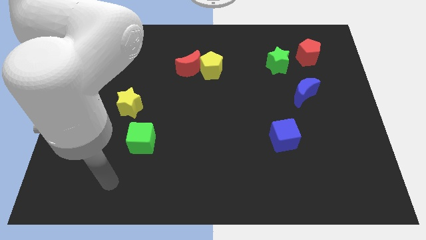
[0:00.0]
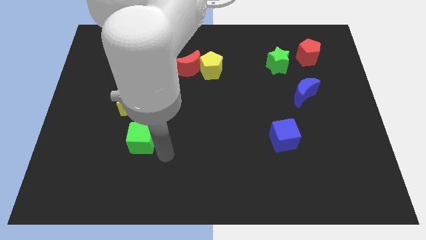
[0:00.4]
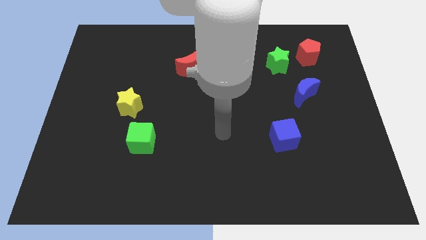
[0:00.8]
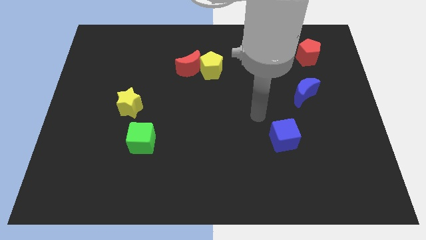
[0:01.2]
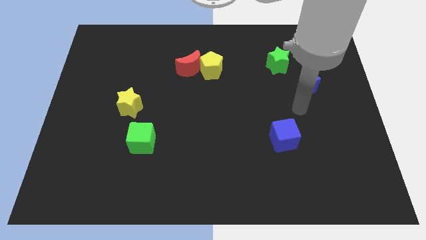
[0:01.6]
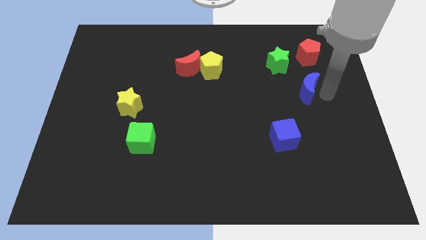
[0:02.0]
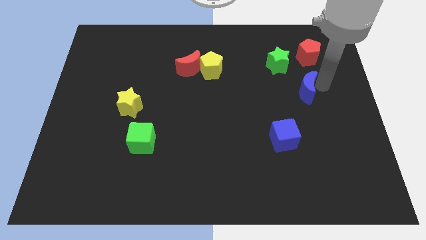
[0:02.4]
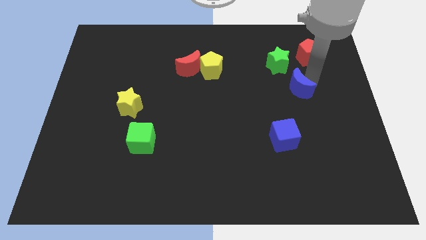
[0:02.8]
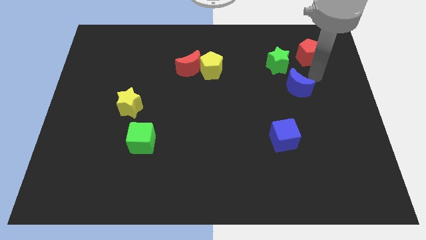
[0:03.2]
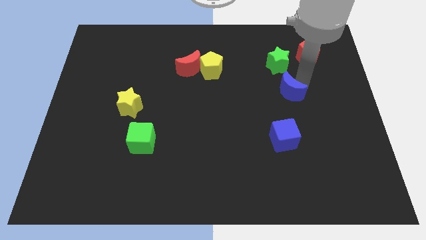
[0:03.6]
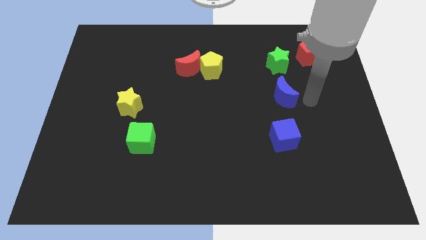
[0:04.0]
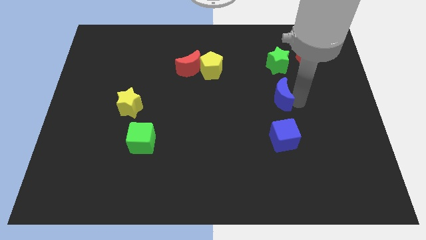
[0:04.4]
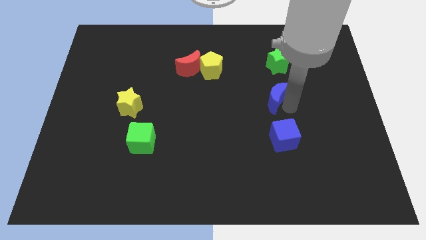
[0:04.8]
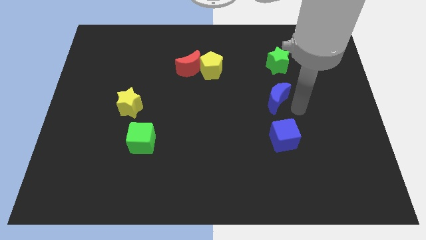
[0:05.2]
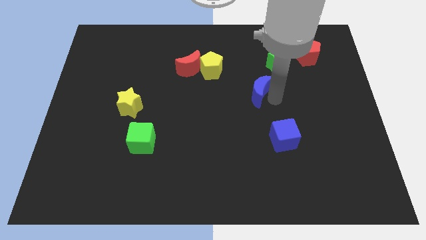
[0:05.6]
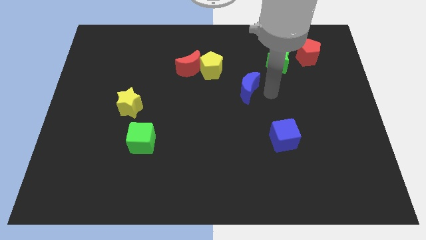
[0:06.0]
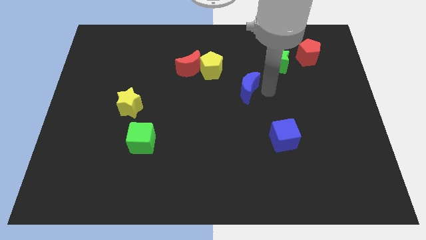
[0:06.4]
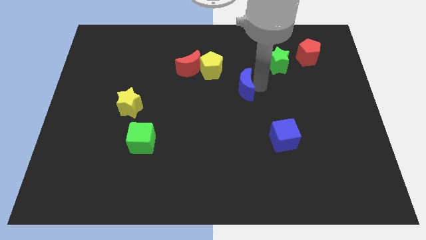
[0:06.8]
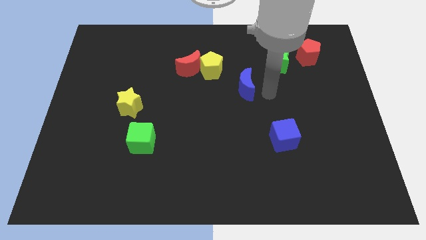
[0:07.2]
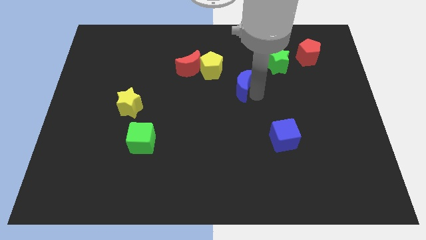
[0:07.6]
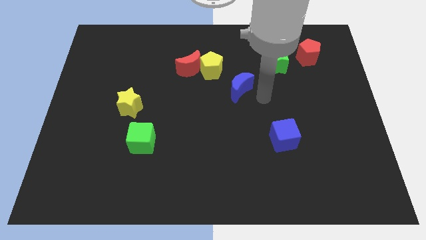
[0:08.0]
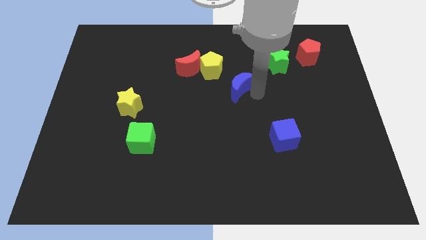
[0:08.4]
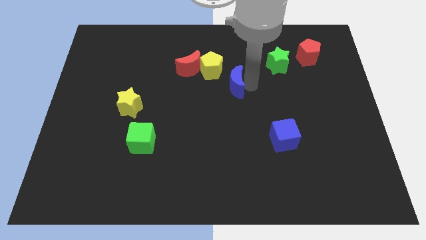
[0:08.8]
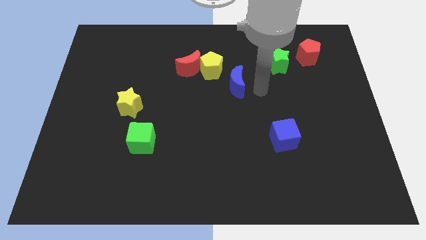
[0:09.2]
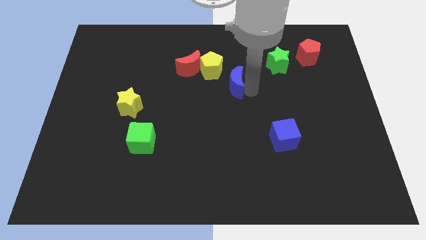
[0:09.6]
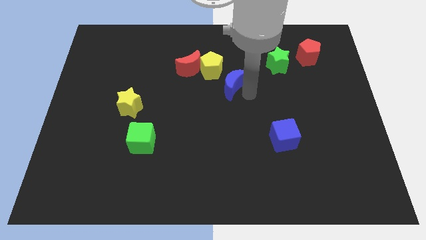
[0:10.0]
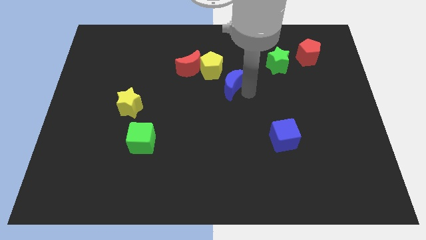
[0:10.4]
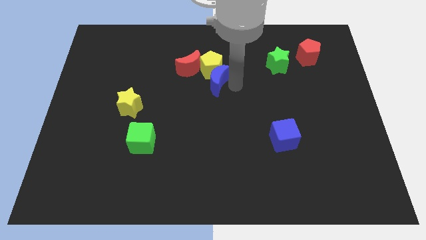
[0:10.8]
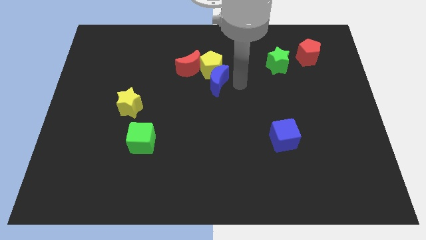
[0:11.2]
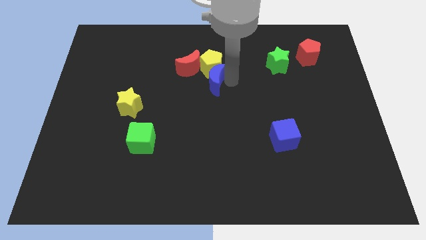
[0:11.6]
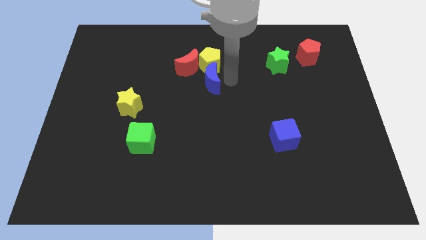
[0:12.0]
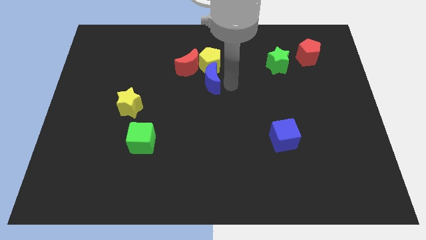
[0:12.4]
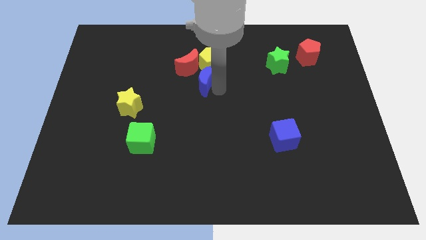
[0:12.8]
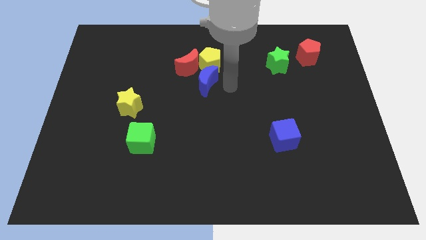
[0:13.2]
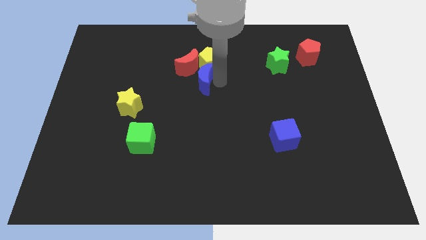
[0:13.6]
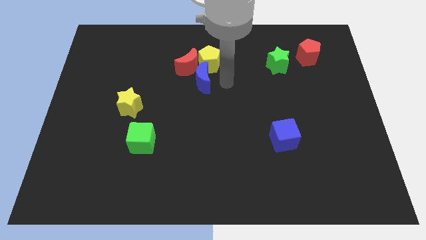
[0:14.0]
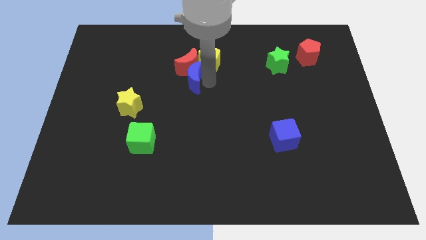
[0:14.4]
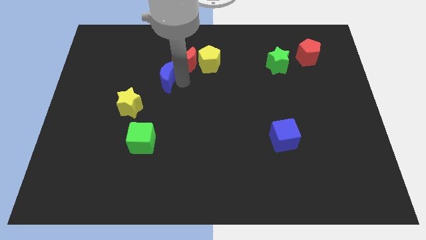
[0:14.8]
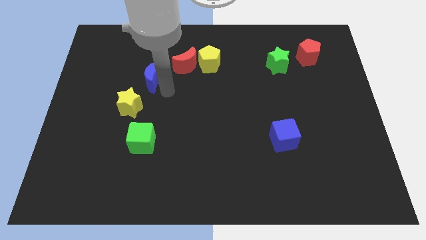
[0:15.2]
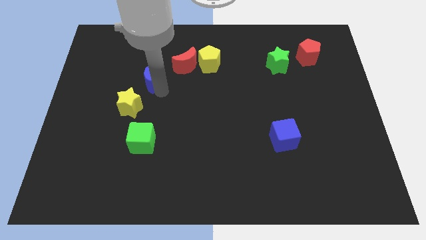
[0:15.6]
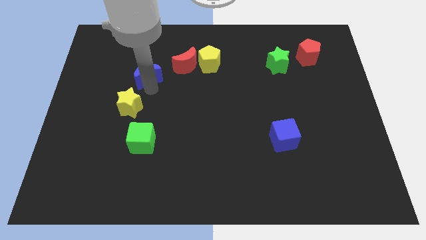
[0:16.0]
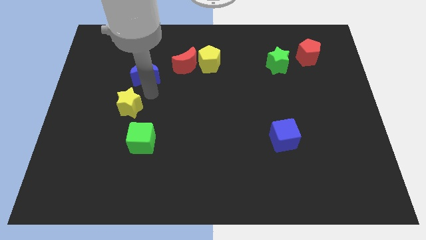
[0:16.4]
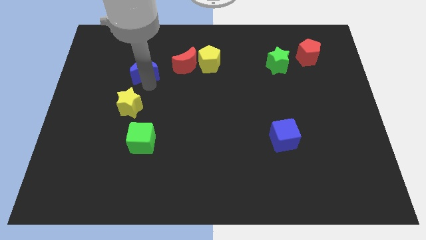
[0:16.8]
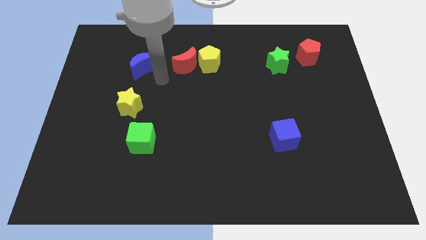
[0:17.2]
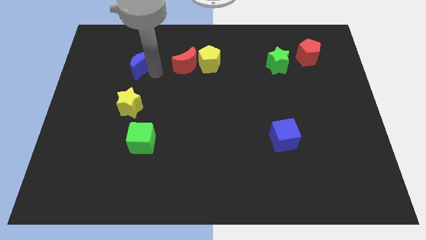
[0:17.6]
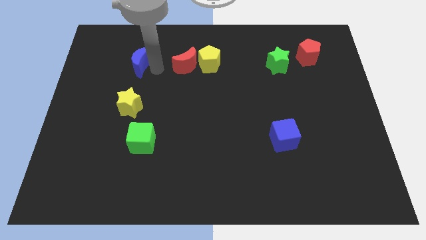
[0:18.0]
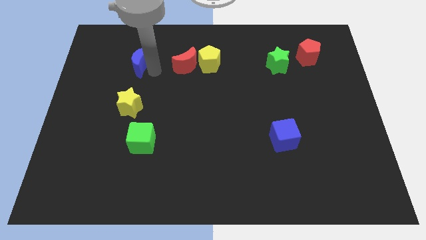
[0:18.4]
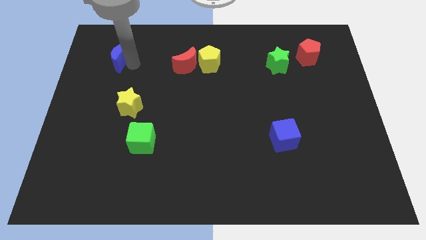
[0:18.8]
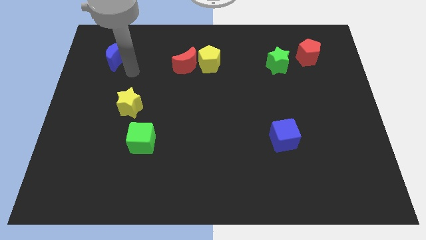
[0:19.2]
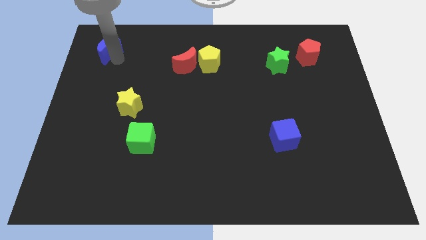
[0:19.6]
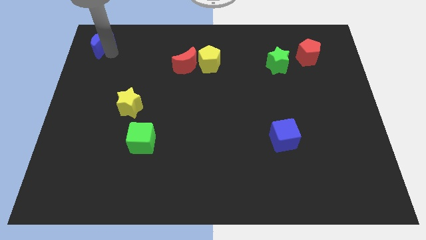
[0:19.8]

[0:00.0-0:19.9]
slide the blue moon to the top left corner

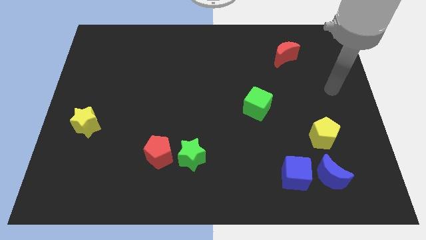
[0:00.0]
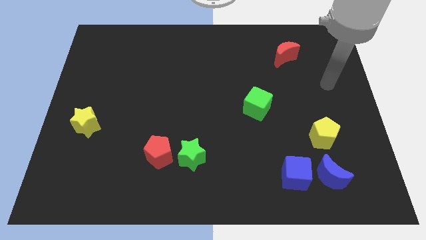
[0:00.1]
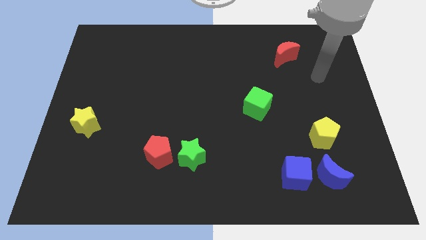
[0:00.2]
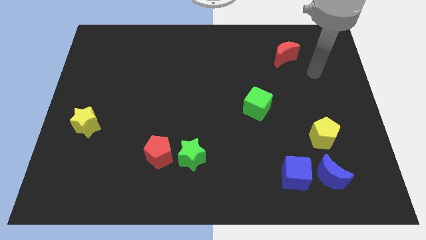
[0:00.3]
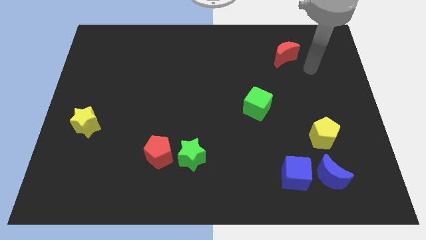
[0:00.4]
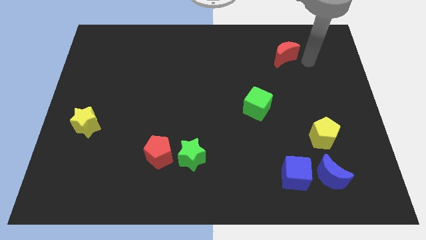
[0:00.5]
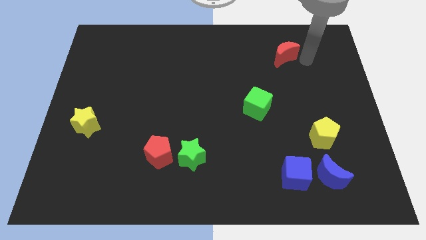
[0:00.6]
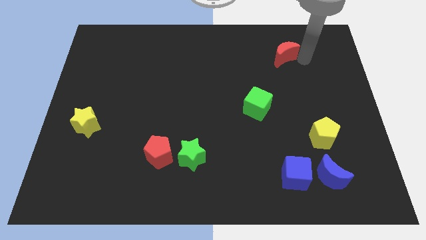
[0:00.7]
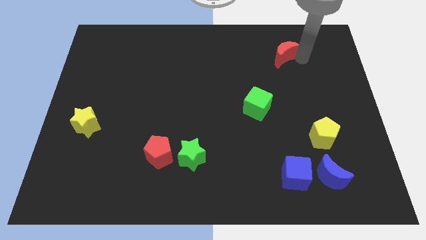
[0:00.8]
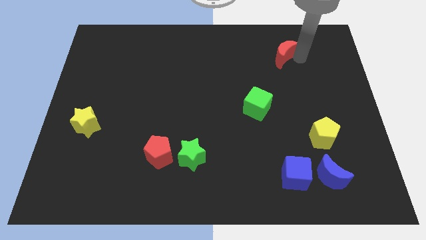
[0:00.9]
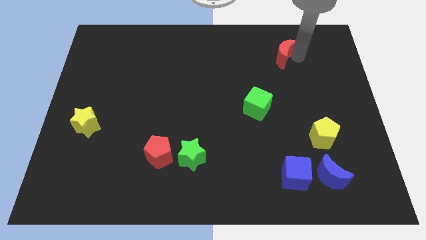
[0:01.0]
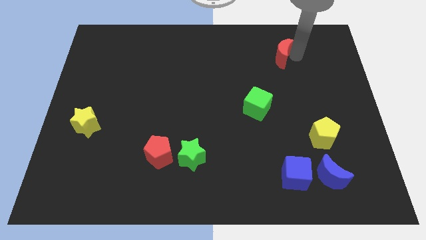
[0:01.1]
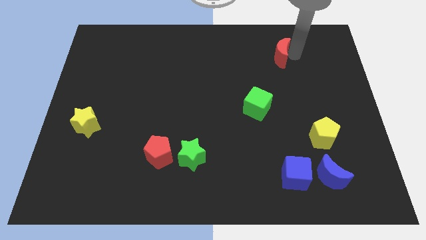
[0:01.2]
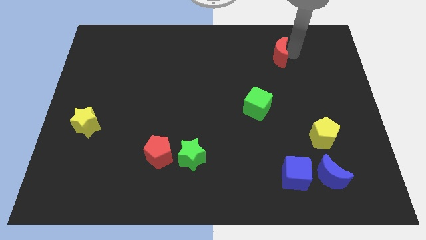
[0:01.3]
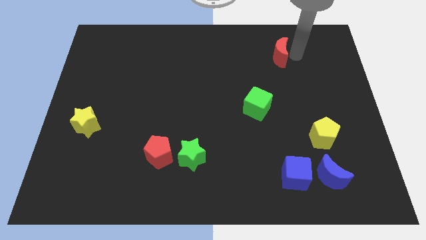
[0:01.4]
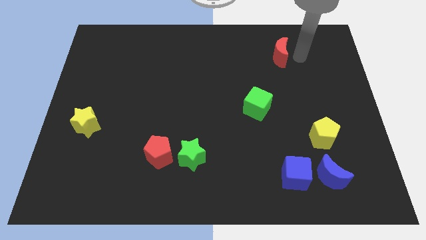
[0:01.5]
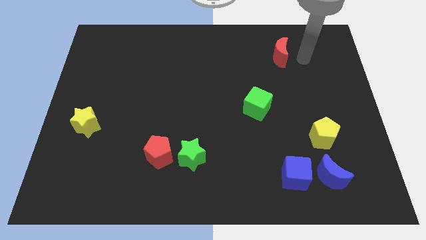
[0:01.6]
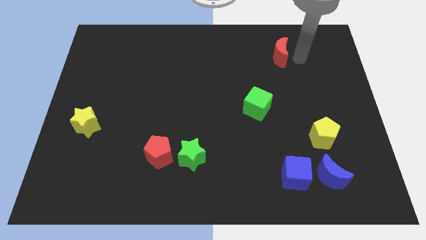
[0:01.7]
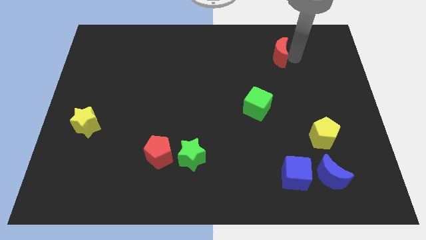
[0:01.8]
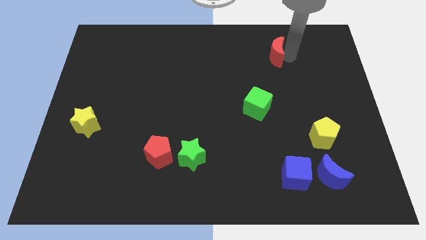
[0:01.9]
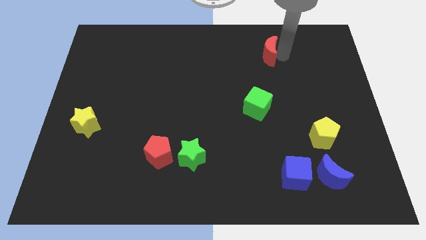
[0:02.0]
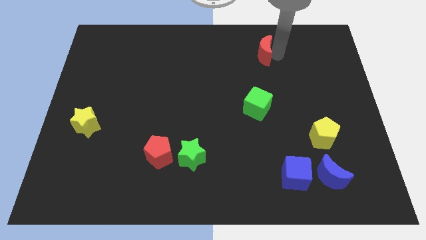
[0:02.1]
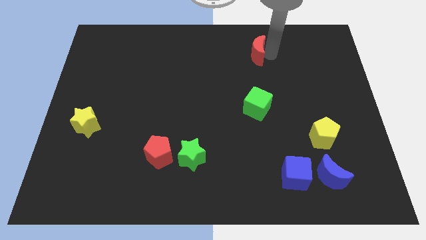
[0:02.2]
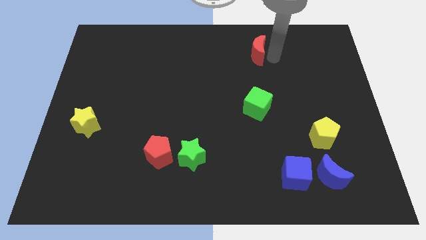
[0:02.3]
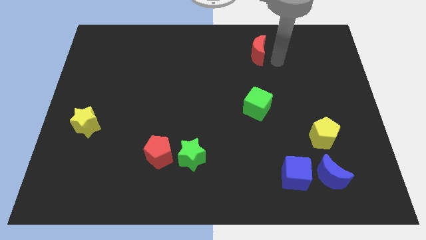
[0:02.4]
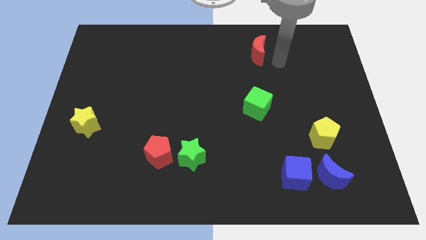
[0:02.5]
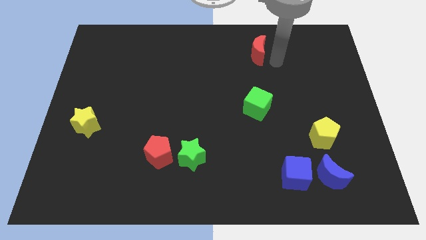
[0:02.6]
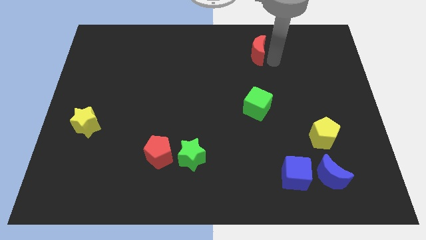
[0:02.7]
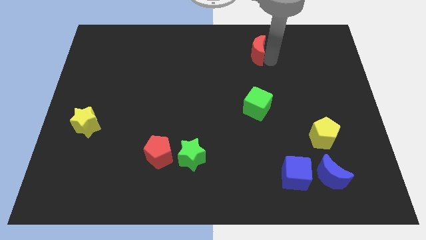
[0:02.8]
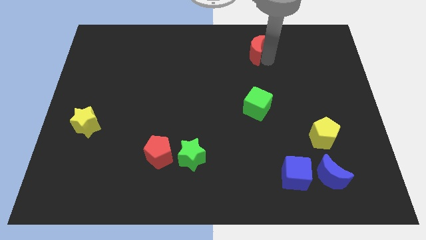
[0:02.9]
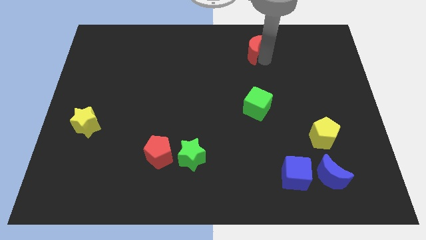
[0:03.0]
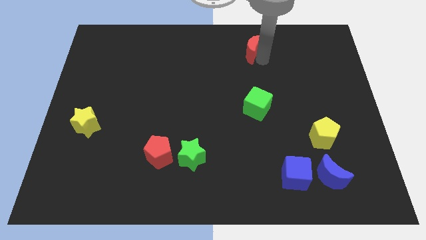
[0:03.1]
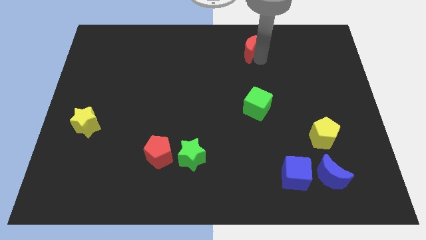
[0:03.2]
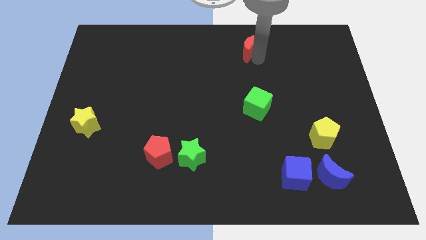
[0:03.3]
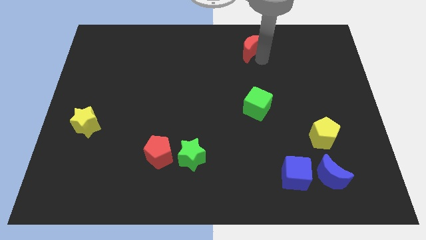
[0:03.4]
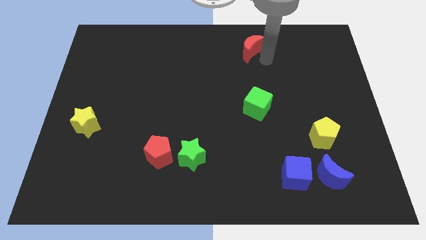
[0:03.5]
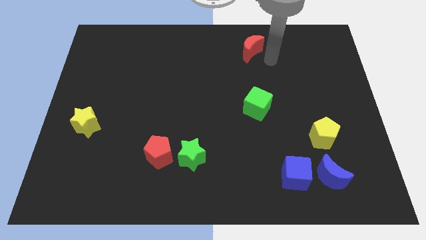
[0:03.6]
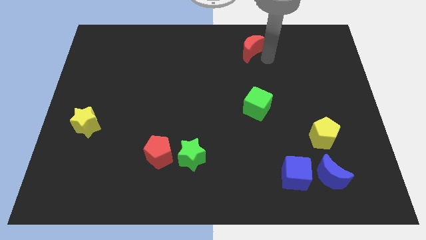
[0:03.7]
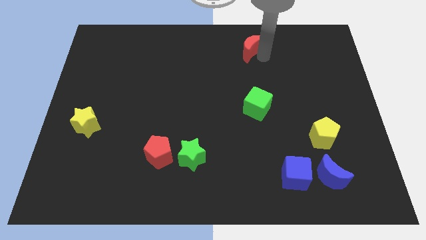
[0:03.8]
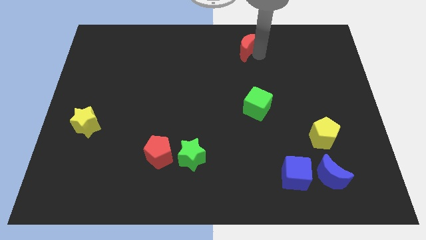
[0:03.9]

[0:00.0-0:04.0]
slide the red moon to the towards your base
